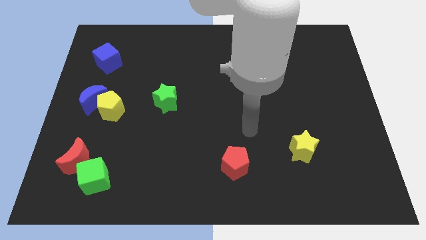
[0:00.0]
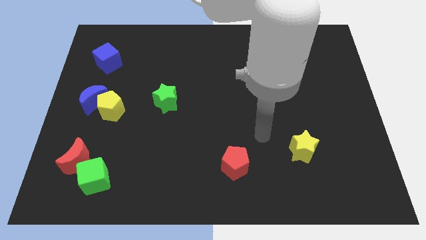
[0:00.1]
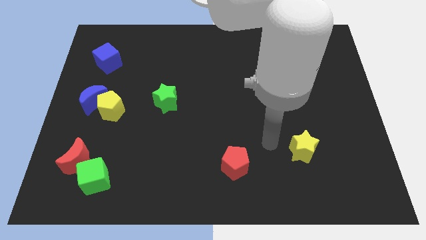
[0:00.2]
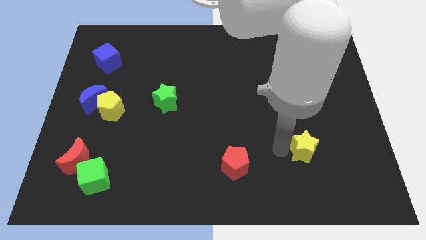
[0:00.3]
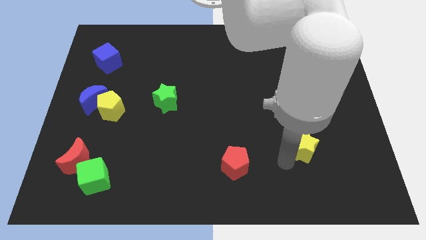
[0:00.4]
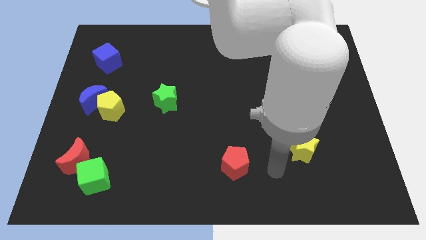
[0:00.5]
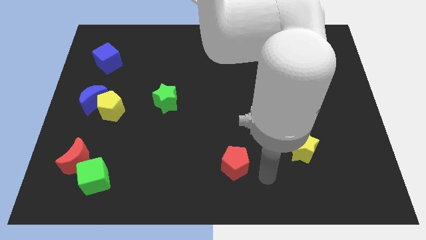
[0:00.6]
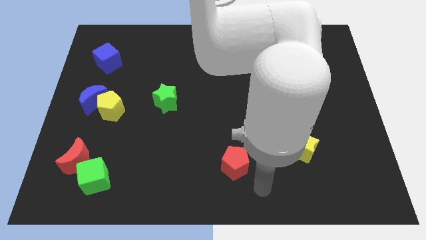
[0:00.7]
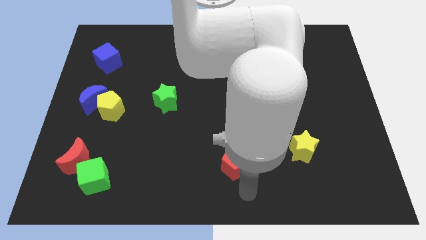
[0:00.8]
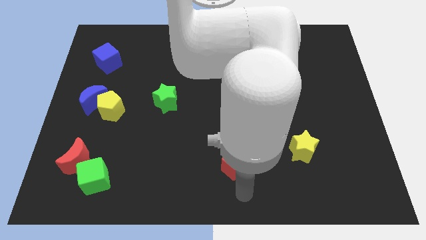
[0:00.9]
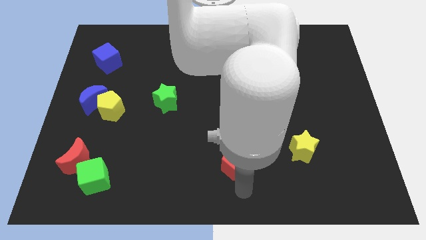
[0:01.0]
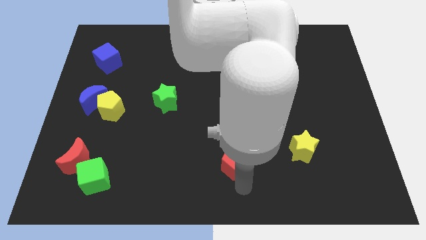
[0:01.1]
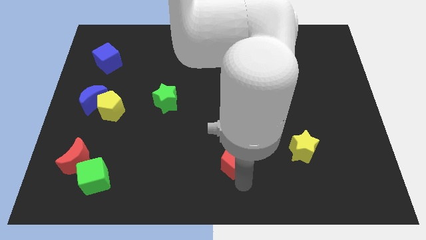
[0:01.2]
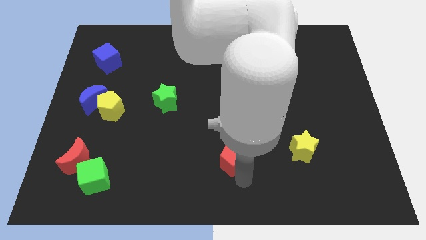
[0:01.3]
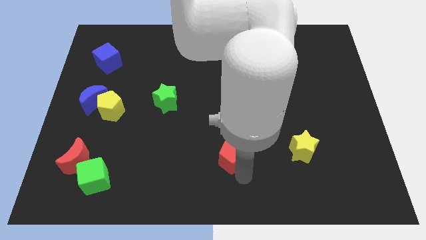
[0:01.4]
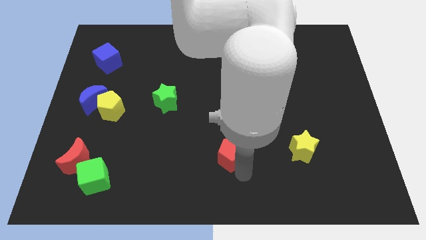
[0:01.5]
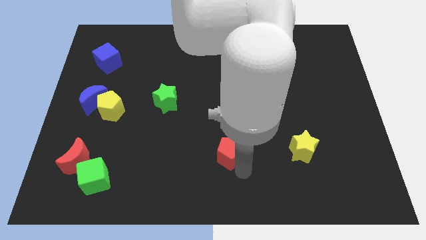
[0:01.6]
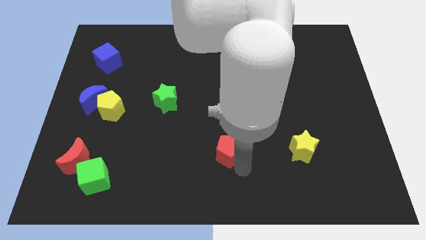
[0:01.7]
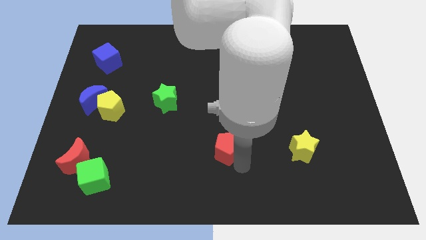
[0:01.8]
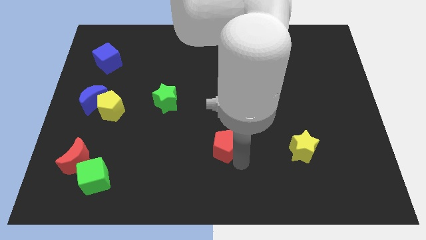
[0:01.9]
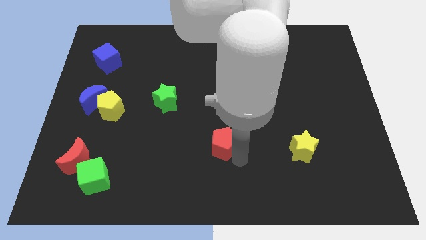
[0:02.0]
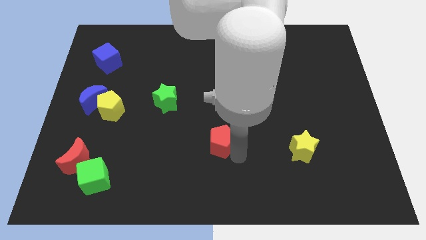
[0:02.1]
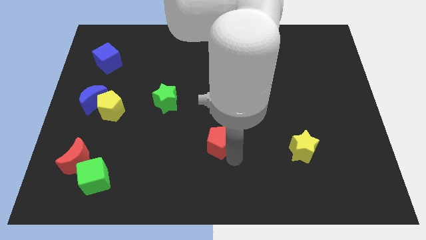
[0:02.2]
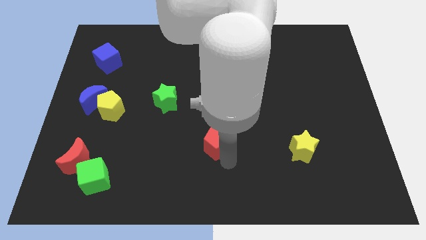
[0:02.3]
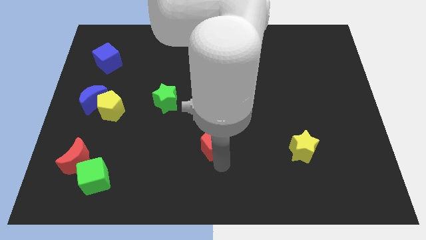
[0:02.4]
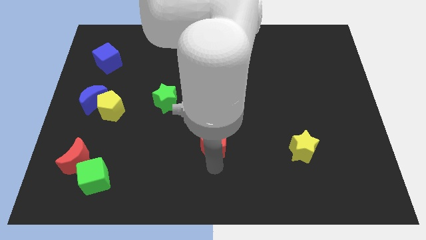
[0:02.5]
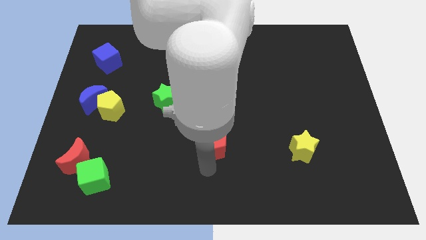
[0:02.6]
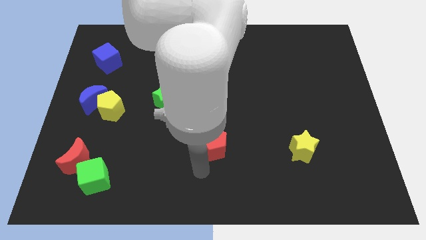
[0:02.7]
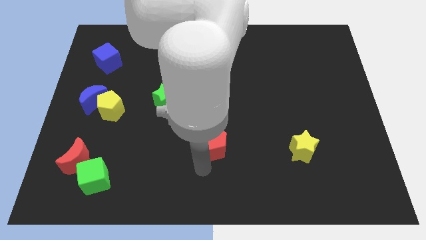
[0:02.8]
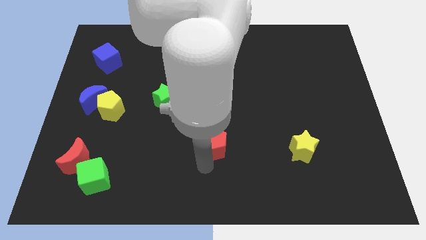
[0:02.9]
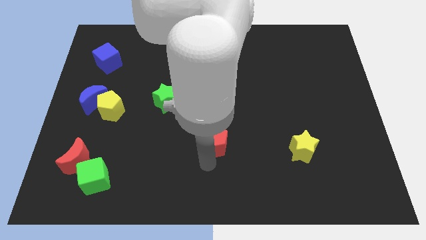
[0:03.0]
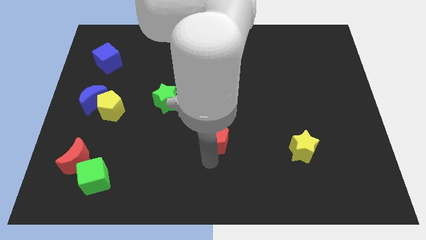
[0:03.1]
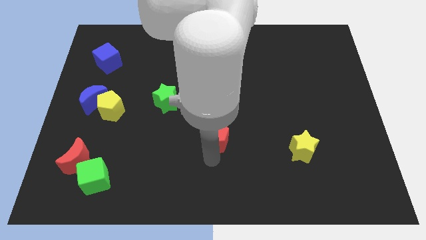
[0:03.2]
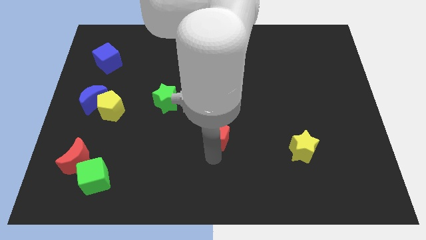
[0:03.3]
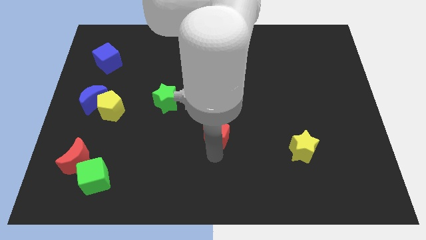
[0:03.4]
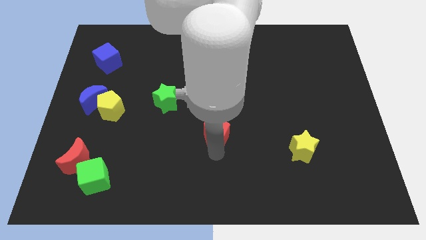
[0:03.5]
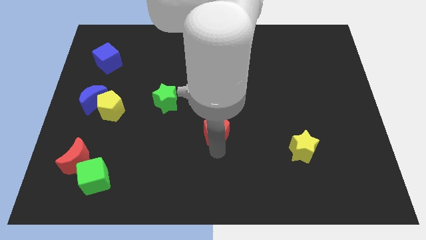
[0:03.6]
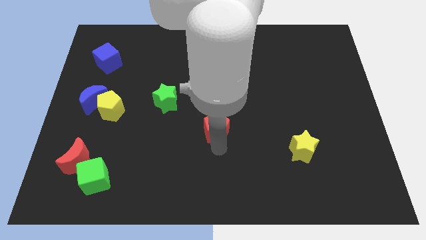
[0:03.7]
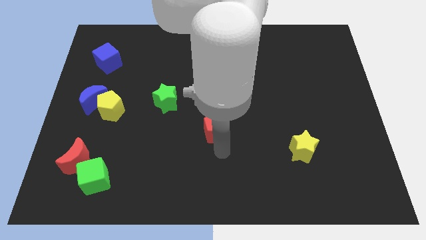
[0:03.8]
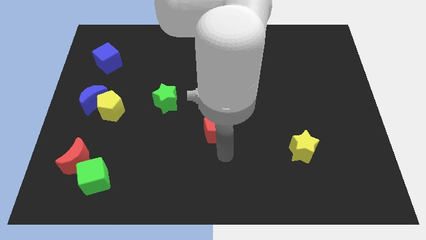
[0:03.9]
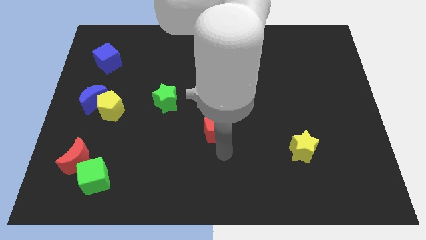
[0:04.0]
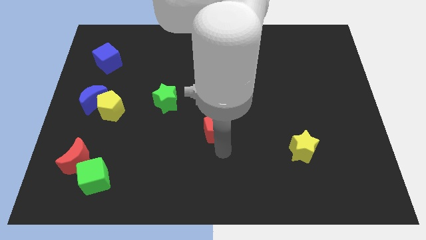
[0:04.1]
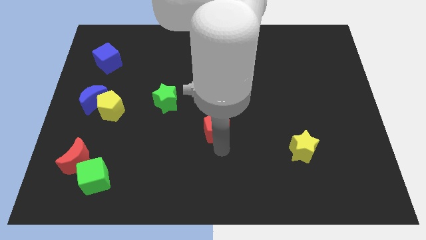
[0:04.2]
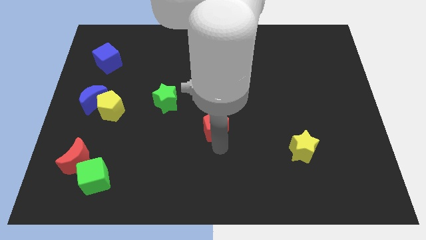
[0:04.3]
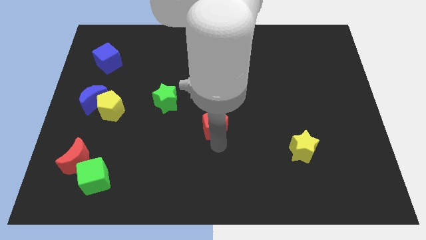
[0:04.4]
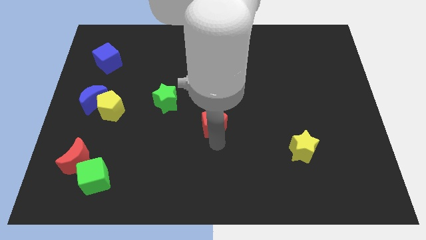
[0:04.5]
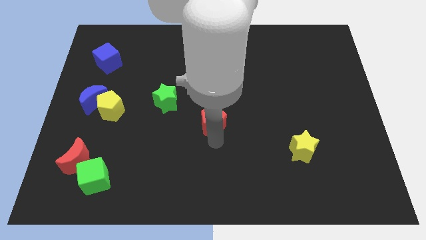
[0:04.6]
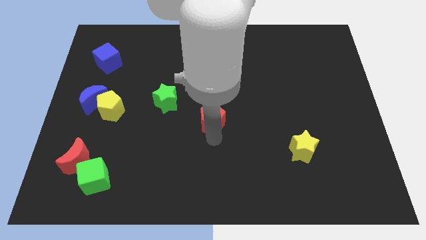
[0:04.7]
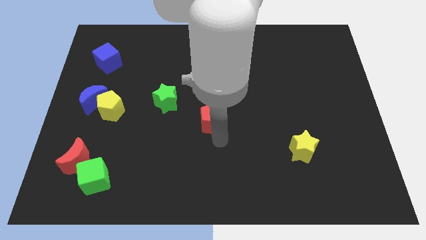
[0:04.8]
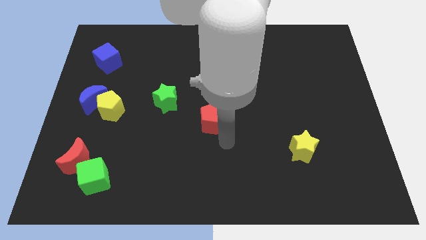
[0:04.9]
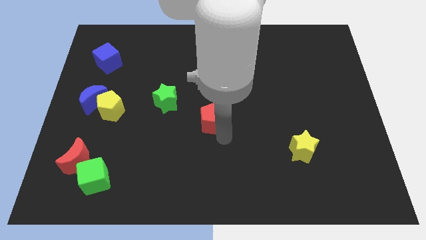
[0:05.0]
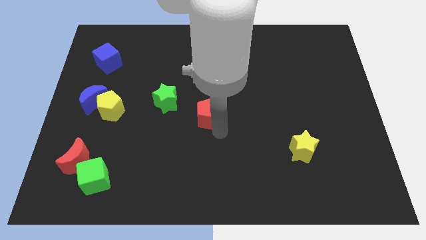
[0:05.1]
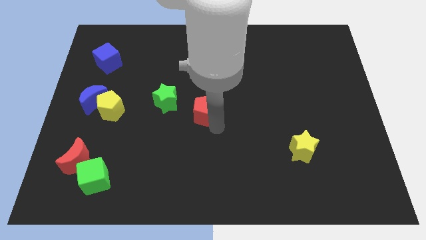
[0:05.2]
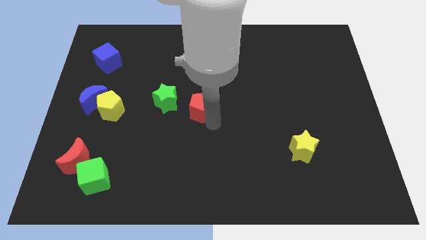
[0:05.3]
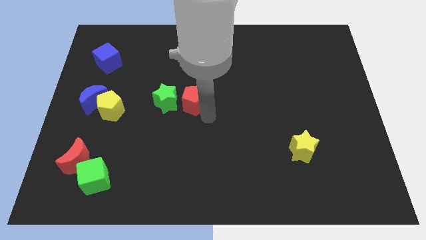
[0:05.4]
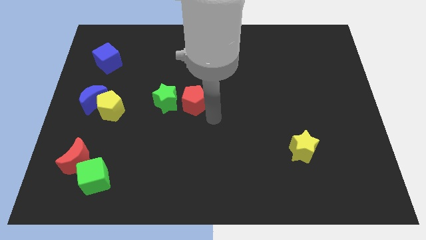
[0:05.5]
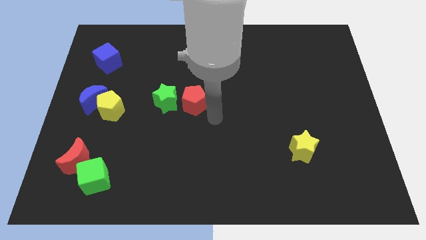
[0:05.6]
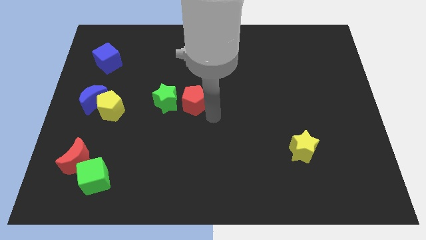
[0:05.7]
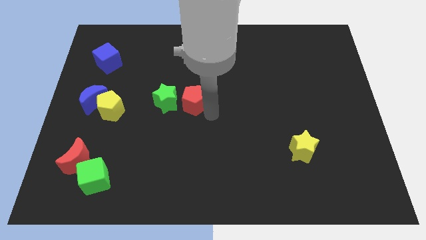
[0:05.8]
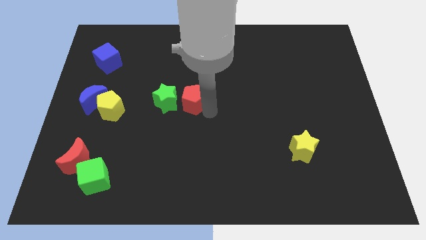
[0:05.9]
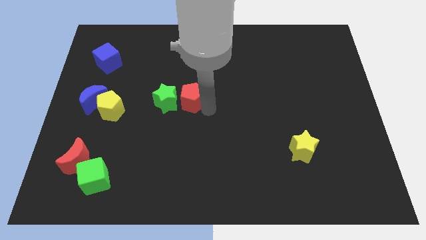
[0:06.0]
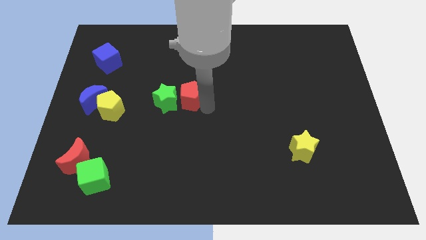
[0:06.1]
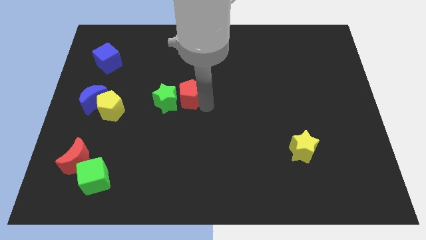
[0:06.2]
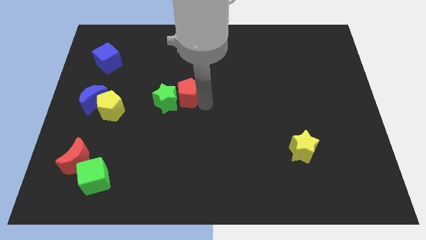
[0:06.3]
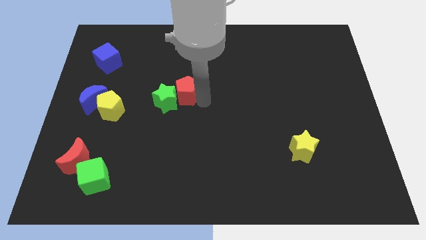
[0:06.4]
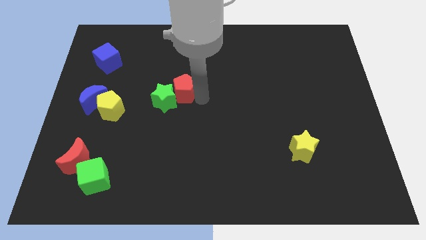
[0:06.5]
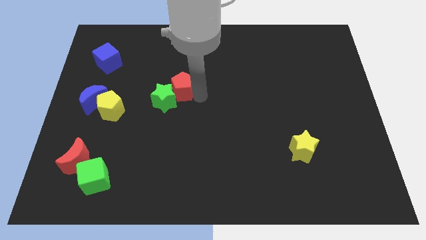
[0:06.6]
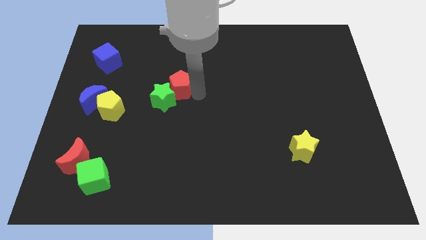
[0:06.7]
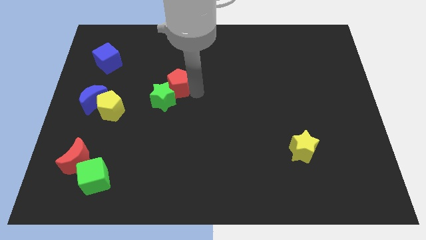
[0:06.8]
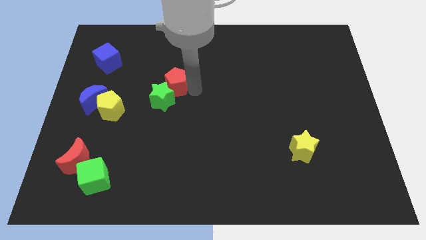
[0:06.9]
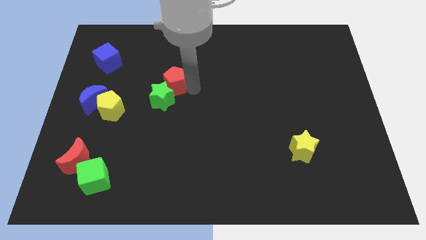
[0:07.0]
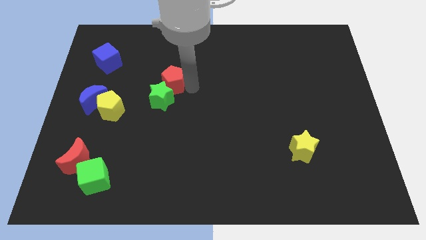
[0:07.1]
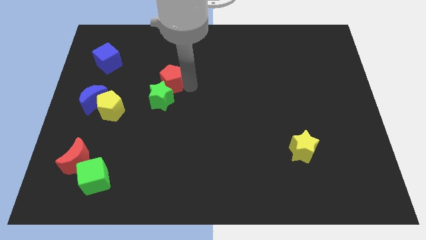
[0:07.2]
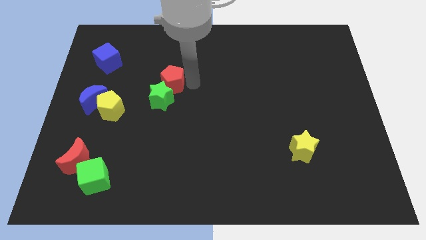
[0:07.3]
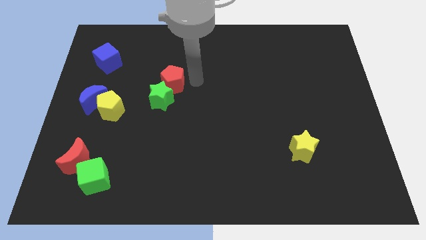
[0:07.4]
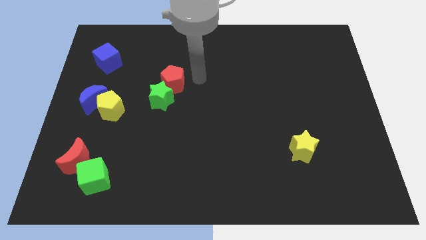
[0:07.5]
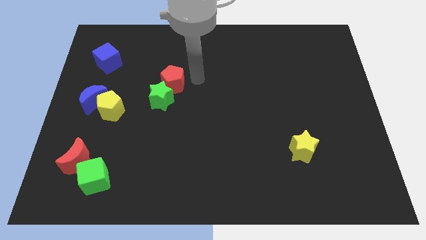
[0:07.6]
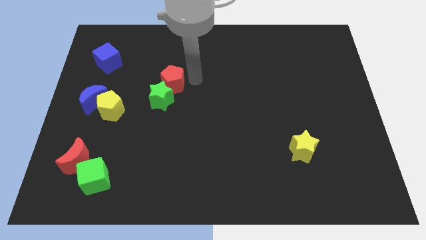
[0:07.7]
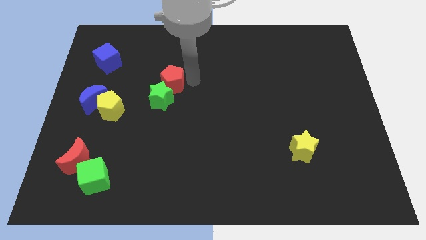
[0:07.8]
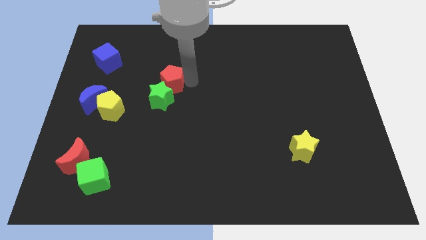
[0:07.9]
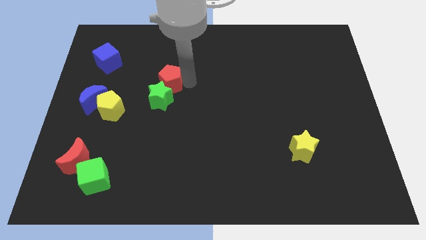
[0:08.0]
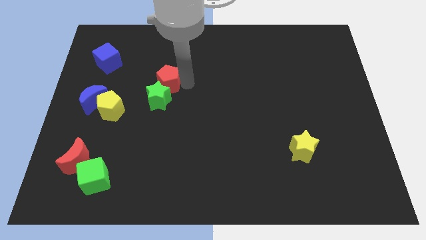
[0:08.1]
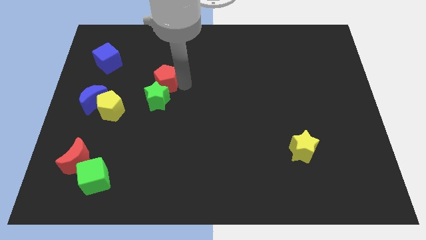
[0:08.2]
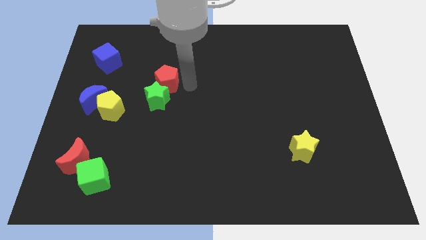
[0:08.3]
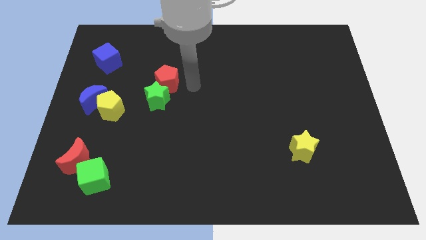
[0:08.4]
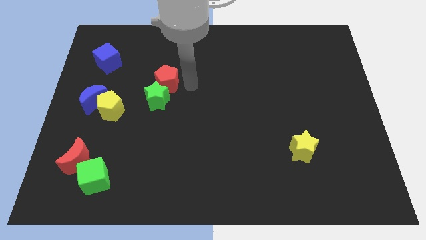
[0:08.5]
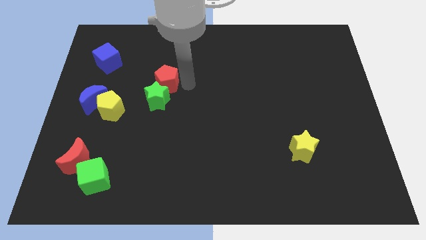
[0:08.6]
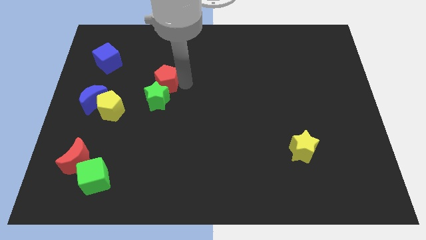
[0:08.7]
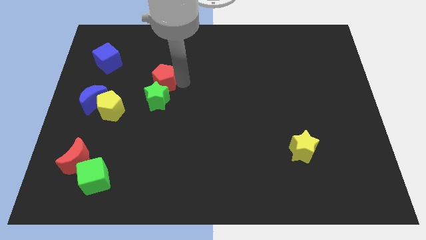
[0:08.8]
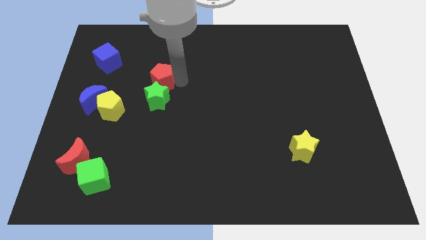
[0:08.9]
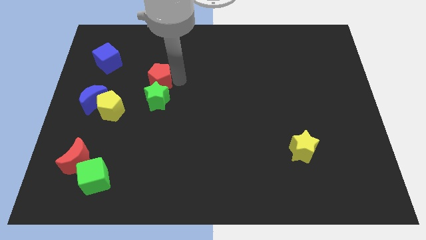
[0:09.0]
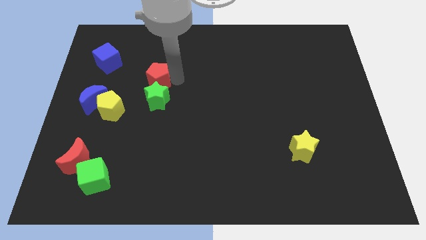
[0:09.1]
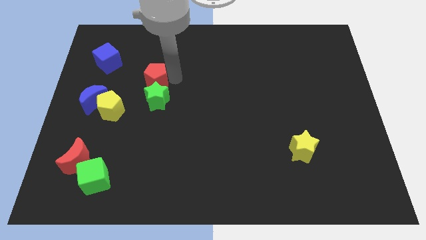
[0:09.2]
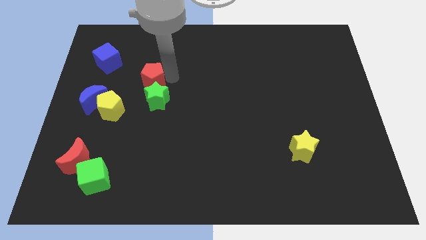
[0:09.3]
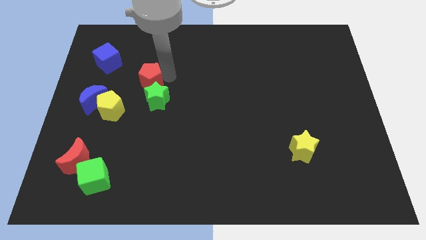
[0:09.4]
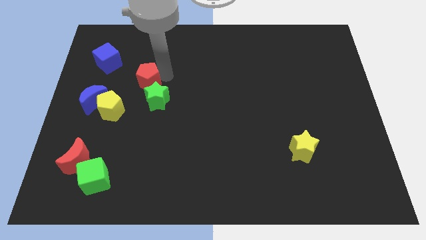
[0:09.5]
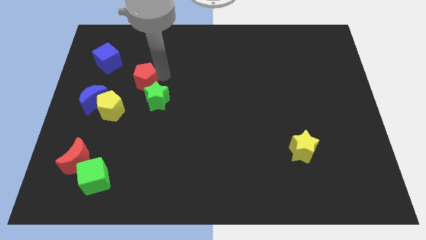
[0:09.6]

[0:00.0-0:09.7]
move the red pentagon to the bottom right side of the blue cube
